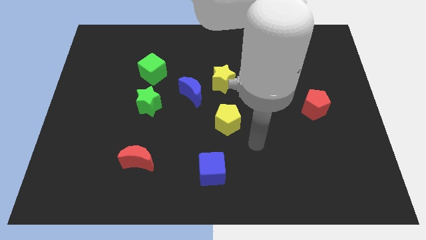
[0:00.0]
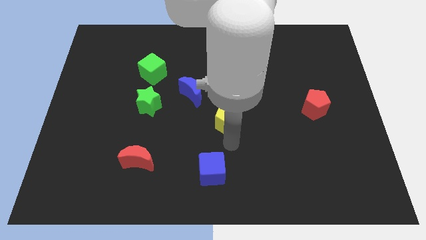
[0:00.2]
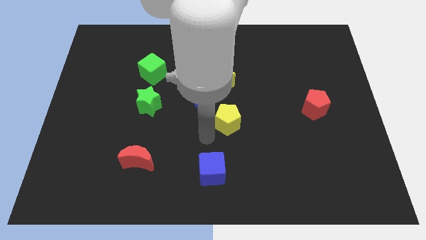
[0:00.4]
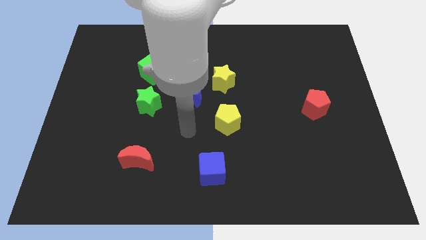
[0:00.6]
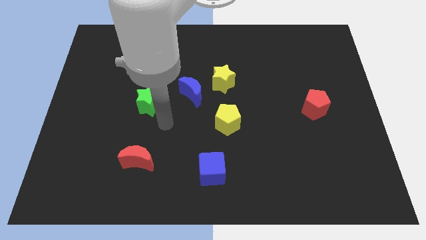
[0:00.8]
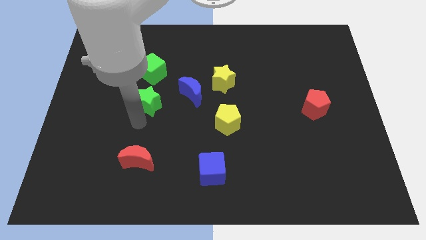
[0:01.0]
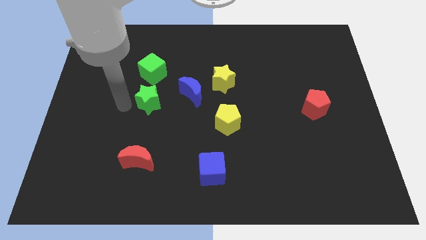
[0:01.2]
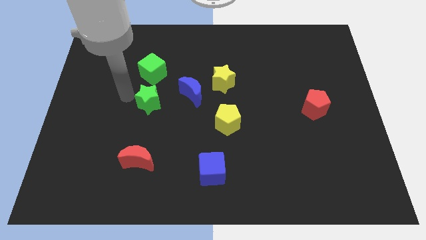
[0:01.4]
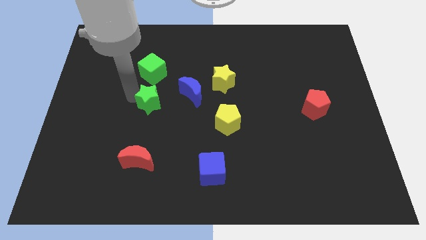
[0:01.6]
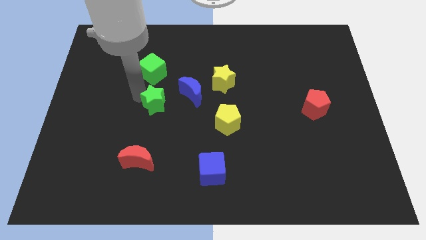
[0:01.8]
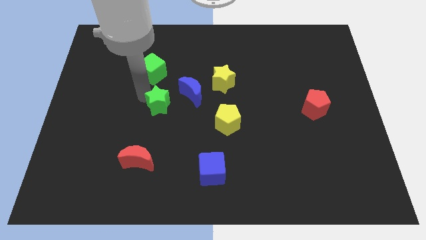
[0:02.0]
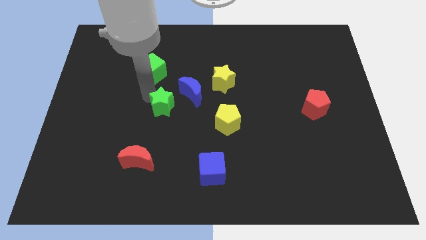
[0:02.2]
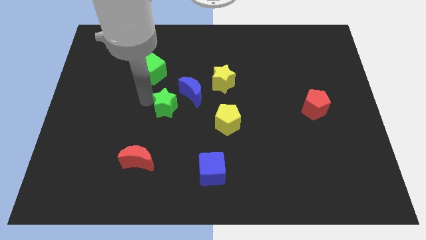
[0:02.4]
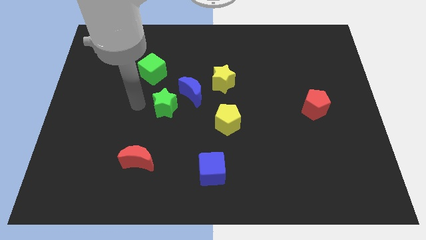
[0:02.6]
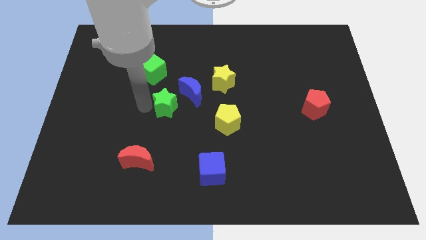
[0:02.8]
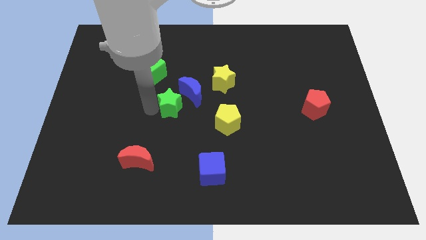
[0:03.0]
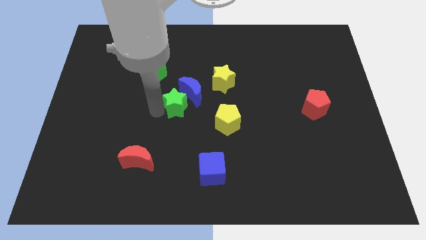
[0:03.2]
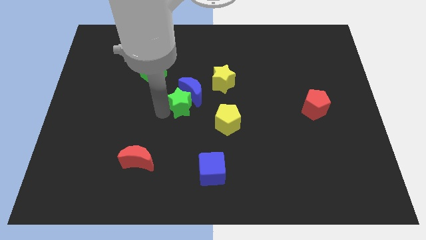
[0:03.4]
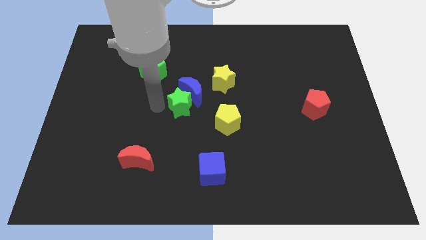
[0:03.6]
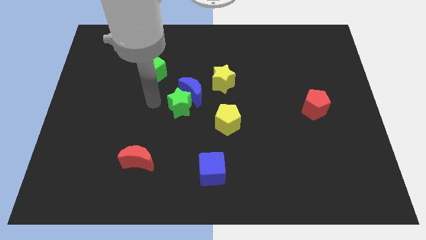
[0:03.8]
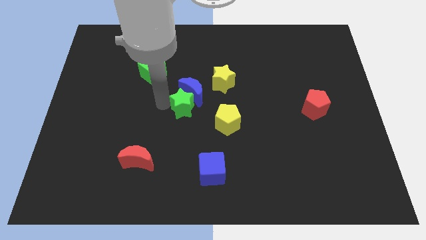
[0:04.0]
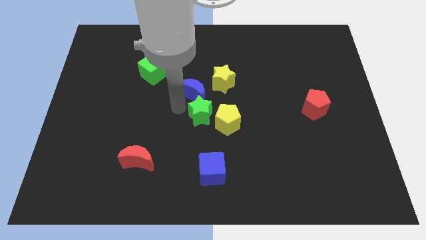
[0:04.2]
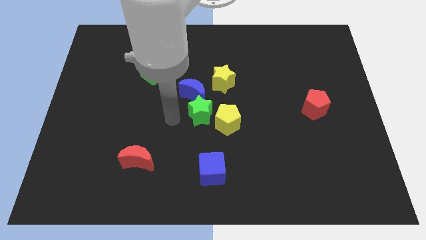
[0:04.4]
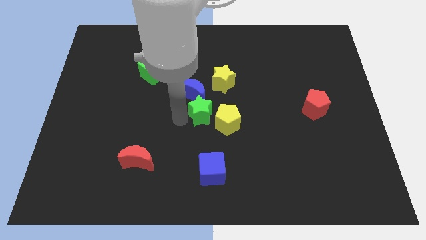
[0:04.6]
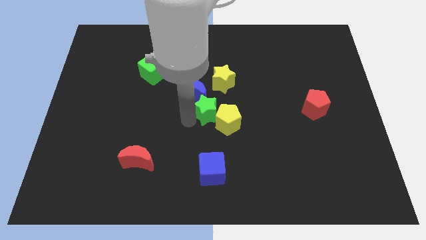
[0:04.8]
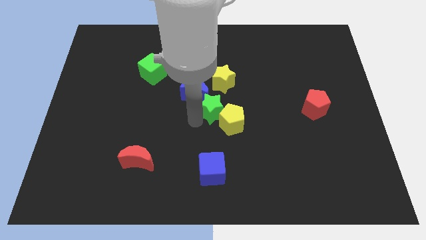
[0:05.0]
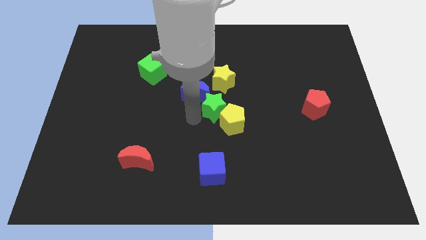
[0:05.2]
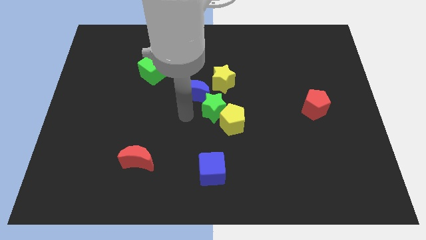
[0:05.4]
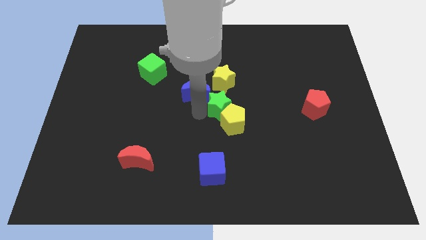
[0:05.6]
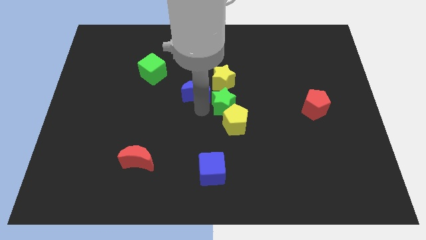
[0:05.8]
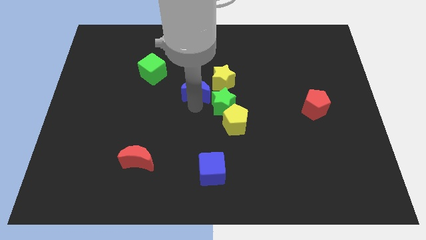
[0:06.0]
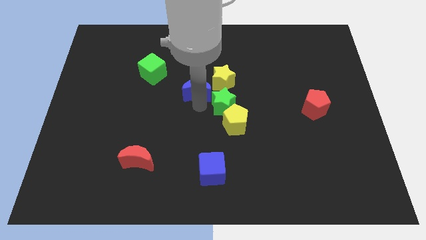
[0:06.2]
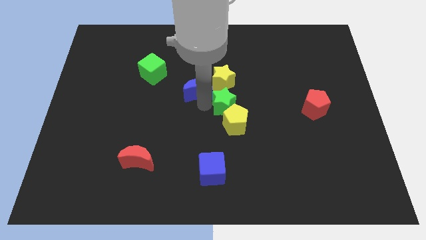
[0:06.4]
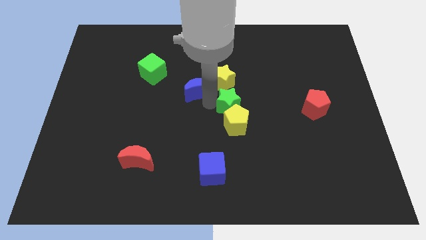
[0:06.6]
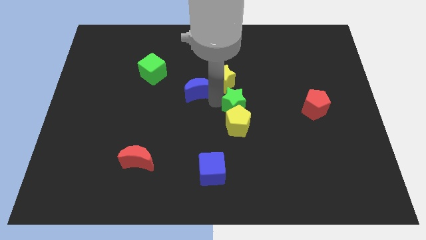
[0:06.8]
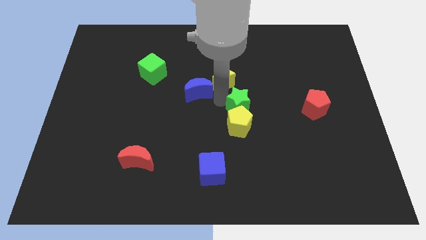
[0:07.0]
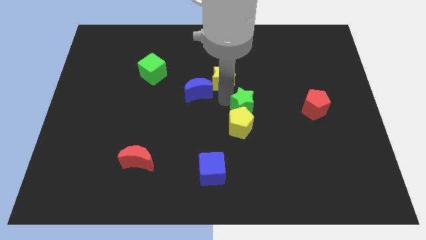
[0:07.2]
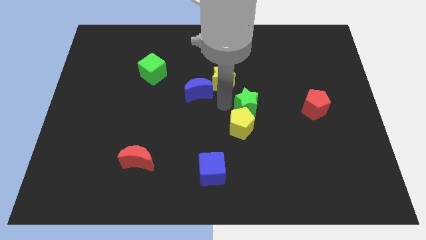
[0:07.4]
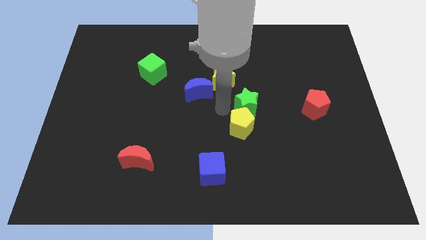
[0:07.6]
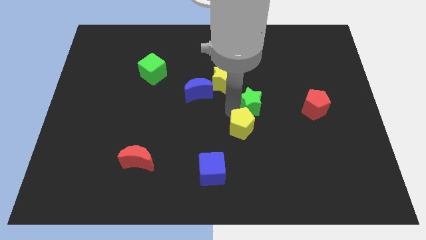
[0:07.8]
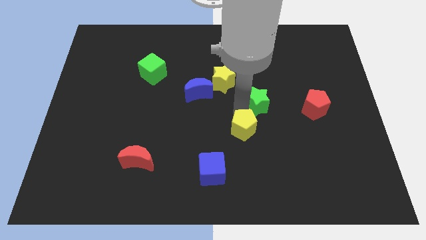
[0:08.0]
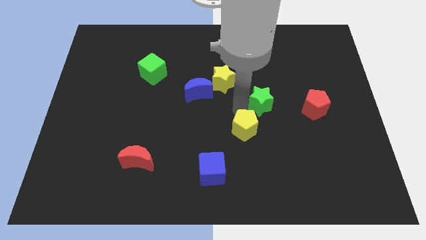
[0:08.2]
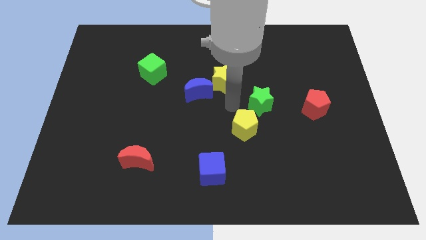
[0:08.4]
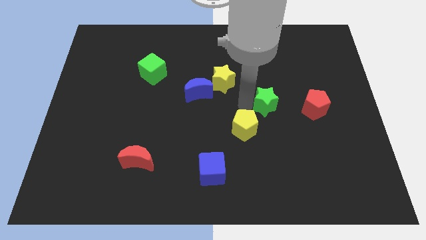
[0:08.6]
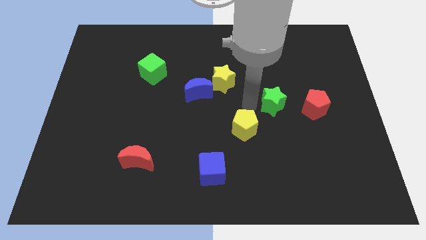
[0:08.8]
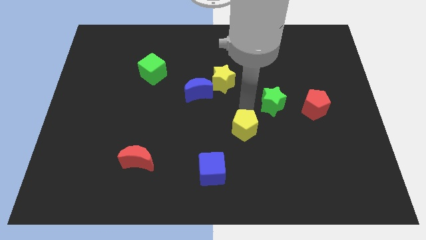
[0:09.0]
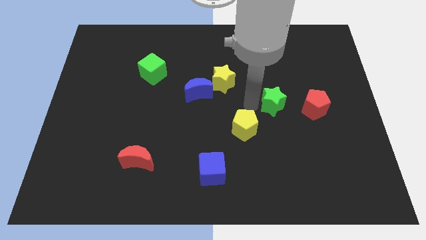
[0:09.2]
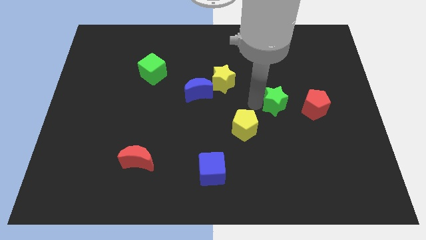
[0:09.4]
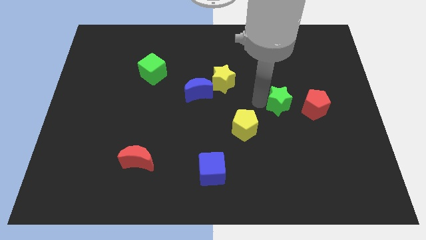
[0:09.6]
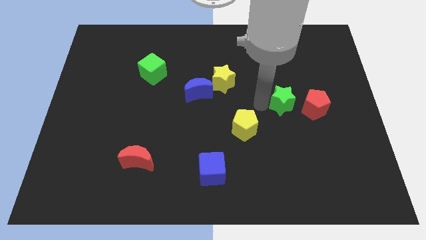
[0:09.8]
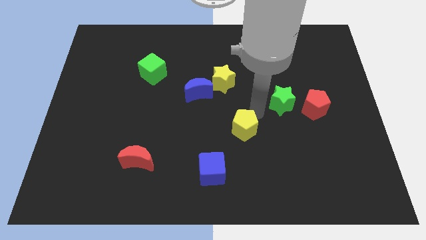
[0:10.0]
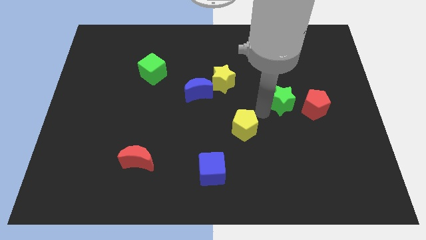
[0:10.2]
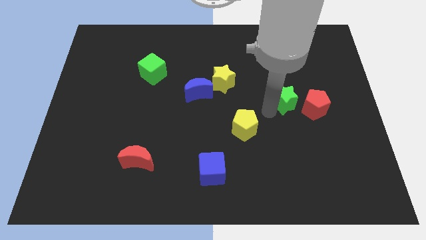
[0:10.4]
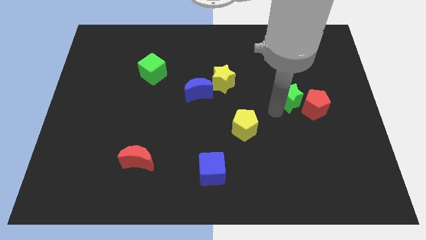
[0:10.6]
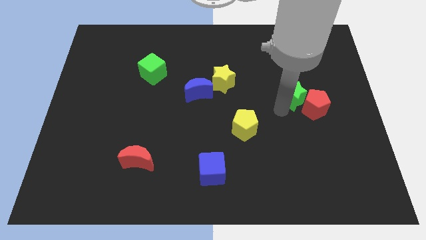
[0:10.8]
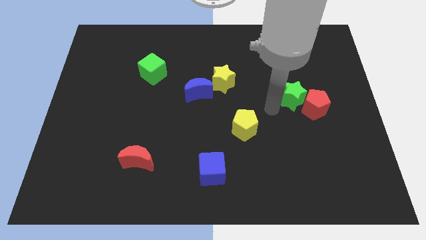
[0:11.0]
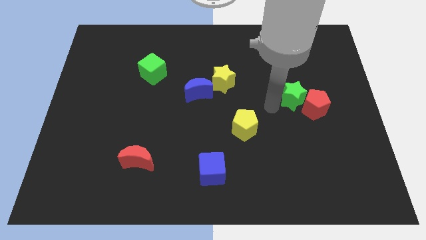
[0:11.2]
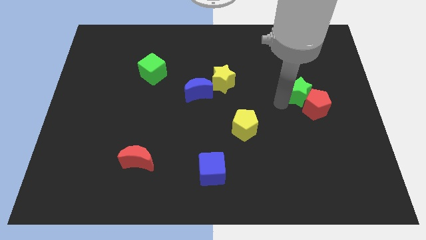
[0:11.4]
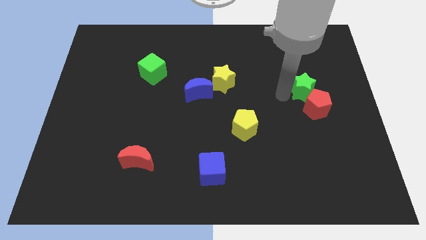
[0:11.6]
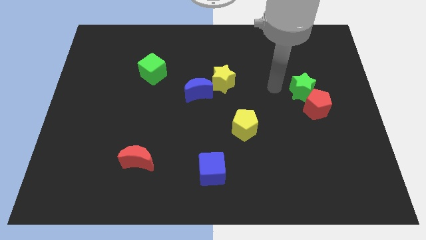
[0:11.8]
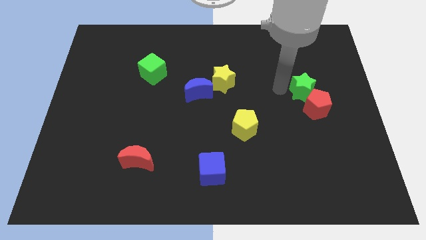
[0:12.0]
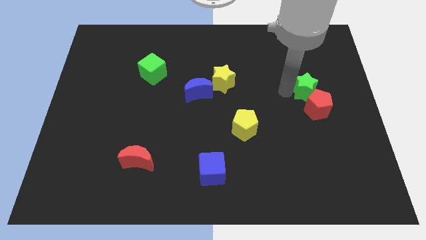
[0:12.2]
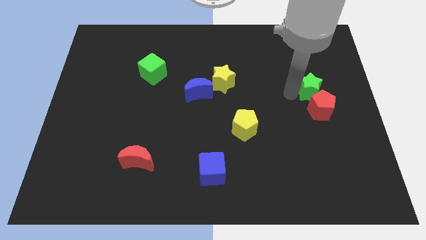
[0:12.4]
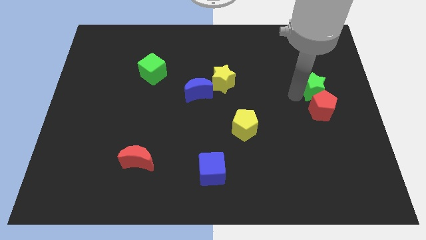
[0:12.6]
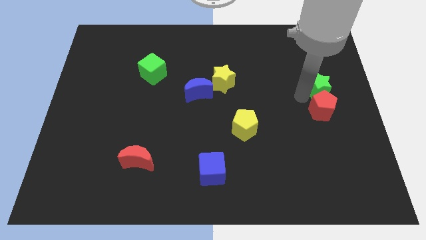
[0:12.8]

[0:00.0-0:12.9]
push the green star to the center right
